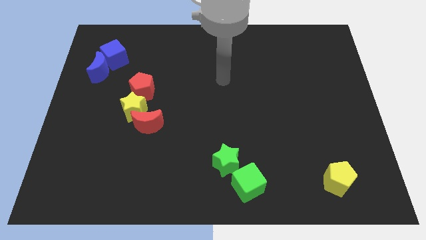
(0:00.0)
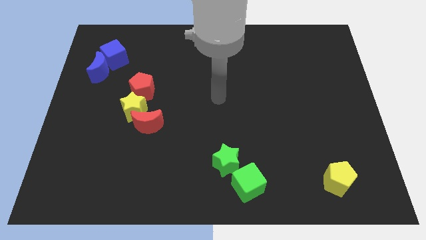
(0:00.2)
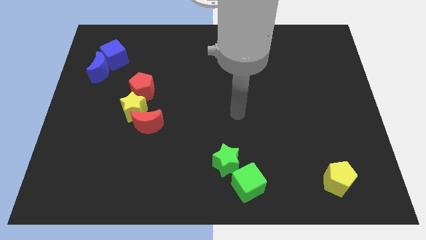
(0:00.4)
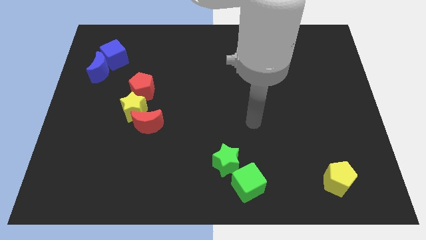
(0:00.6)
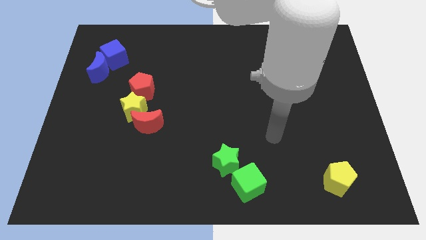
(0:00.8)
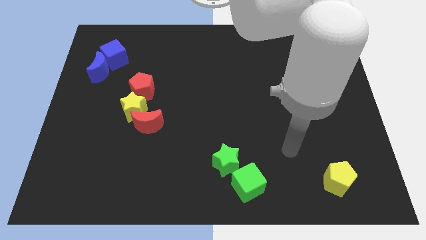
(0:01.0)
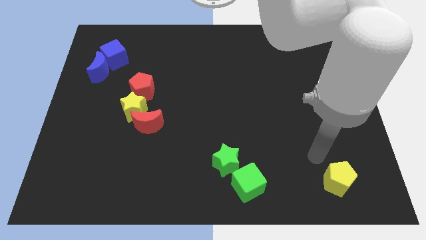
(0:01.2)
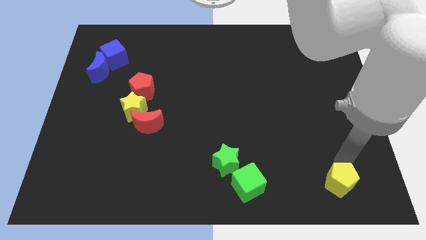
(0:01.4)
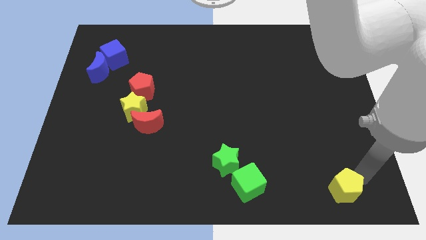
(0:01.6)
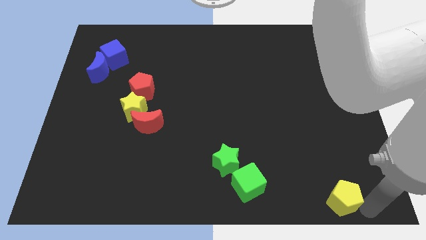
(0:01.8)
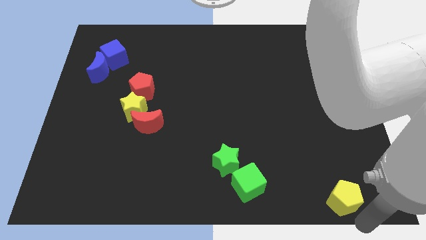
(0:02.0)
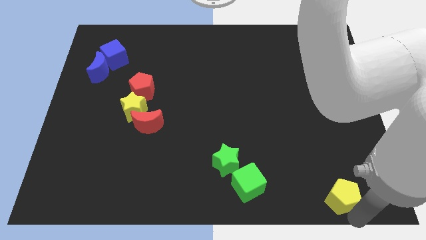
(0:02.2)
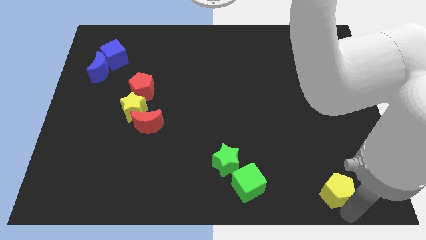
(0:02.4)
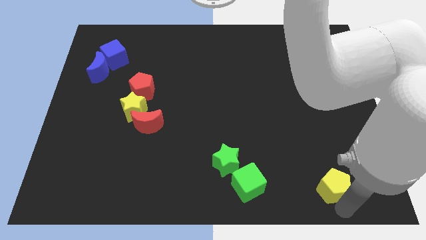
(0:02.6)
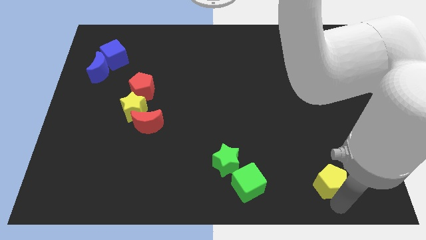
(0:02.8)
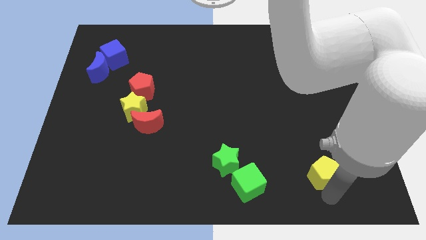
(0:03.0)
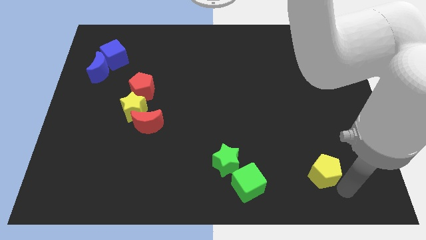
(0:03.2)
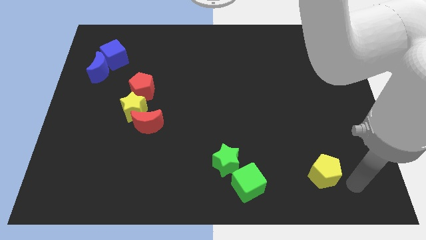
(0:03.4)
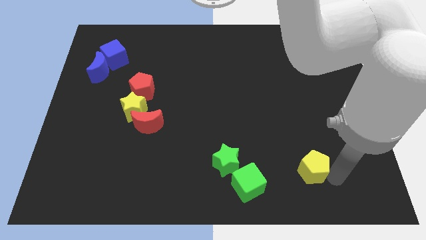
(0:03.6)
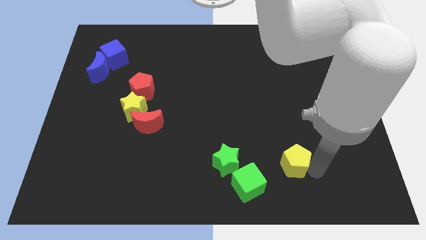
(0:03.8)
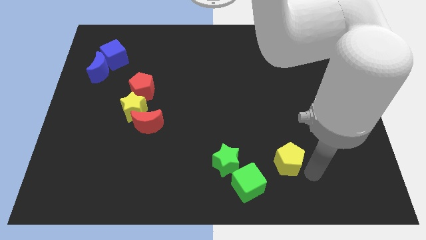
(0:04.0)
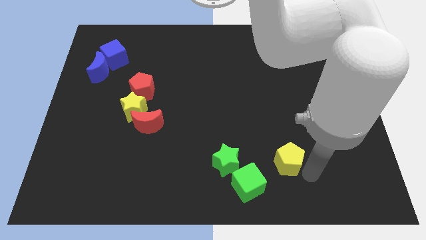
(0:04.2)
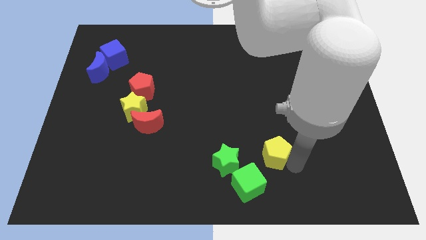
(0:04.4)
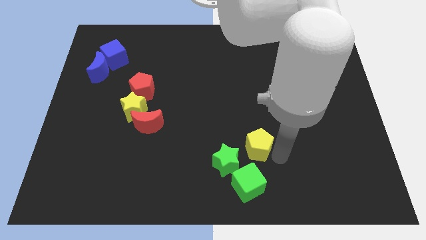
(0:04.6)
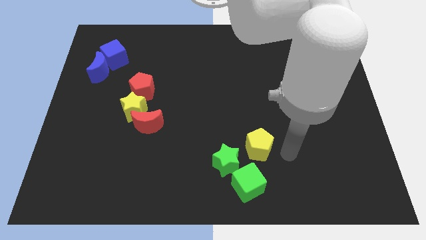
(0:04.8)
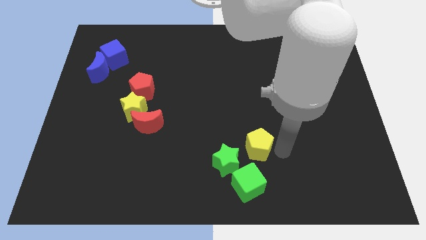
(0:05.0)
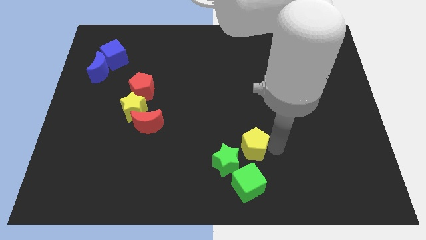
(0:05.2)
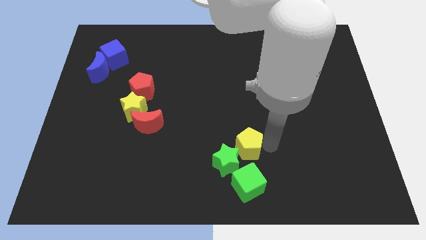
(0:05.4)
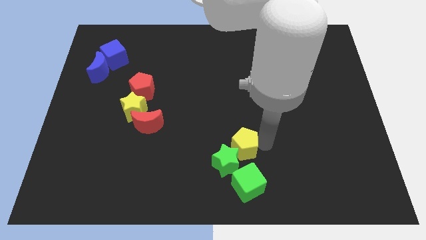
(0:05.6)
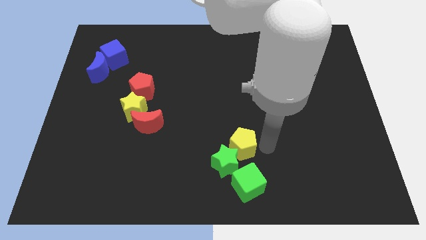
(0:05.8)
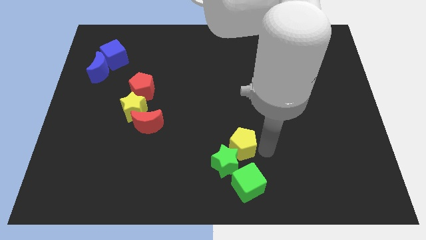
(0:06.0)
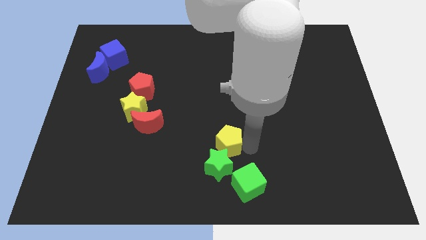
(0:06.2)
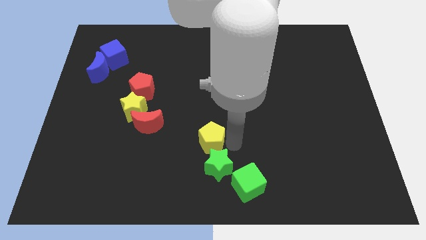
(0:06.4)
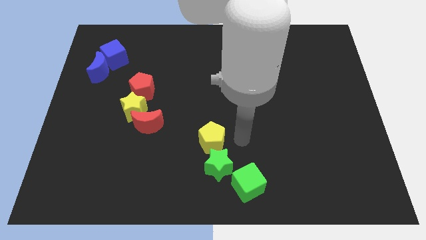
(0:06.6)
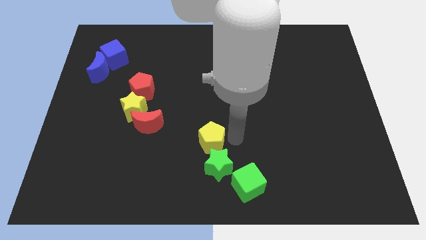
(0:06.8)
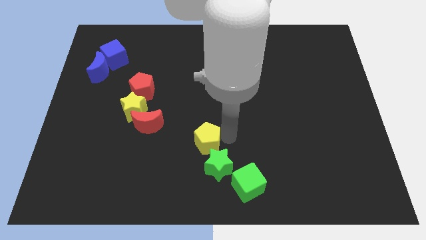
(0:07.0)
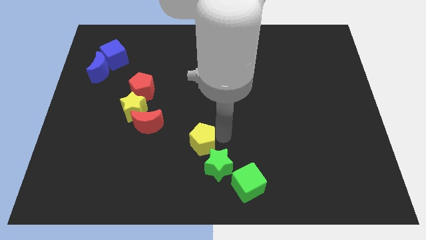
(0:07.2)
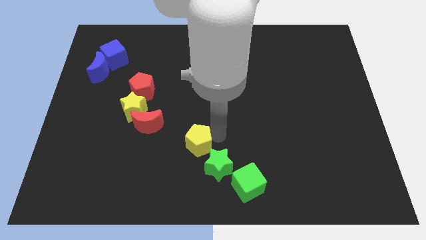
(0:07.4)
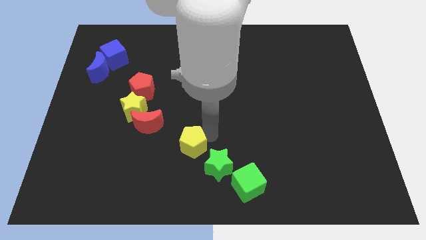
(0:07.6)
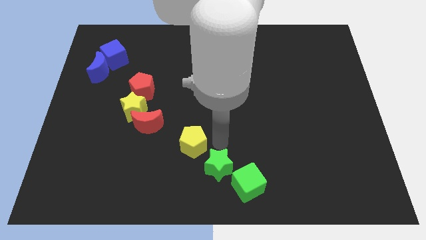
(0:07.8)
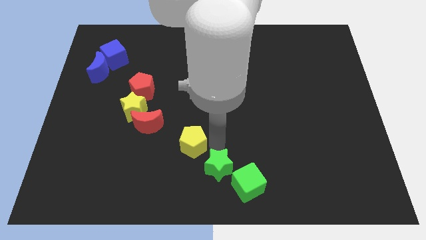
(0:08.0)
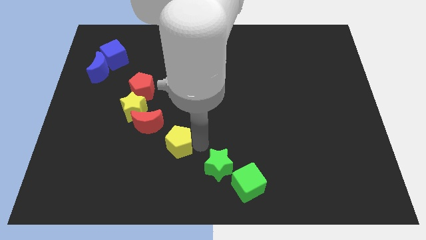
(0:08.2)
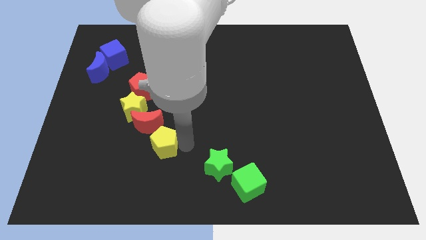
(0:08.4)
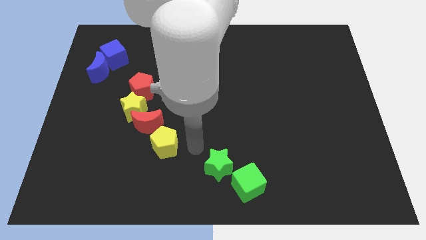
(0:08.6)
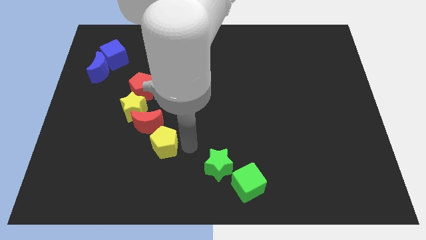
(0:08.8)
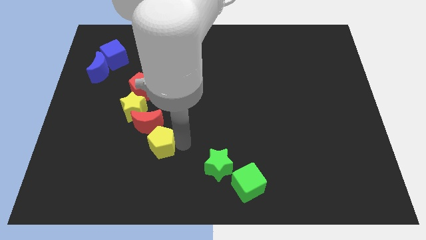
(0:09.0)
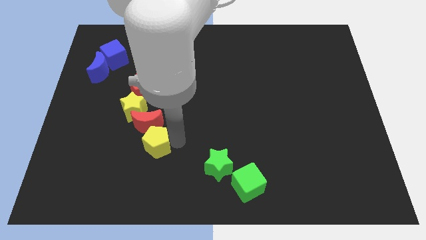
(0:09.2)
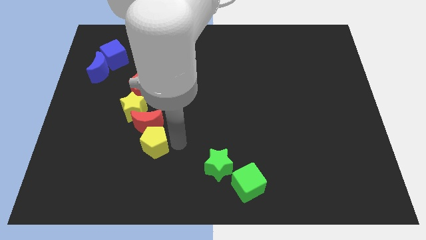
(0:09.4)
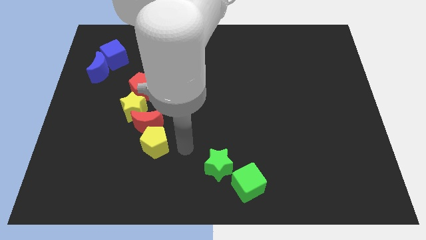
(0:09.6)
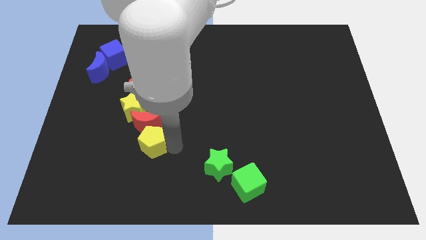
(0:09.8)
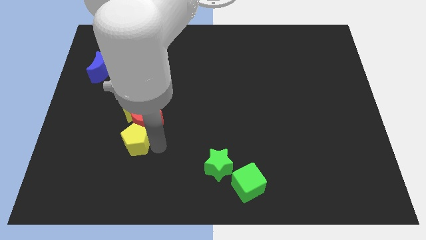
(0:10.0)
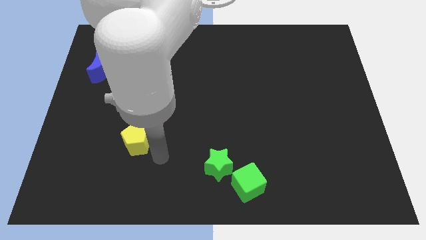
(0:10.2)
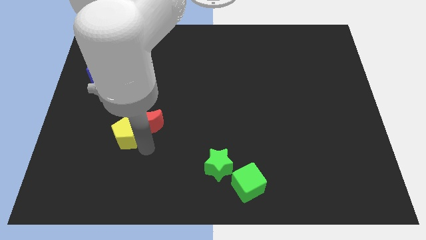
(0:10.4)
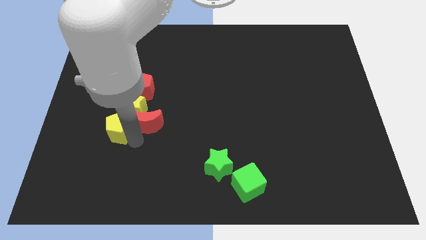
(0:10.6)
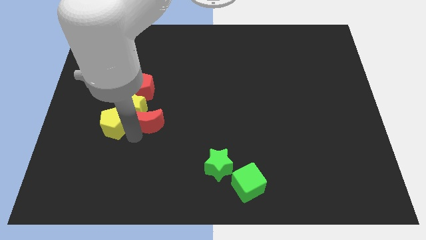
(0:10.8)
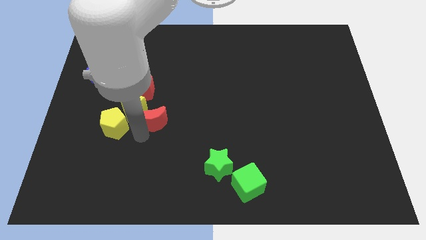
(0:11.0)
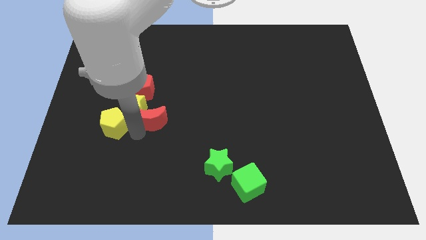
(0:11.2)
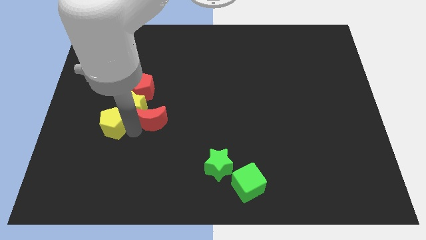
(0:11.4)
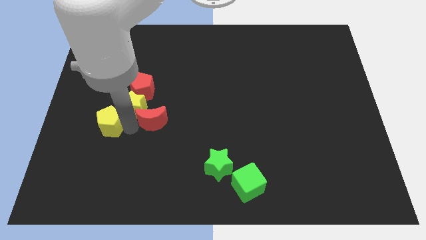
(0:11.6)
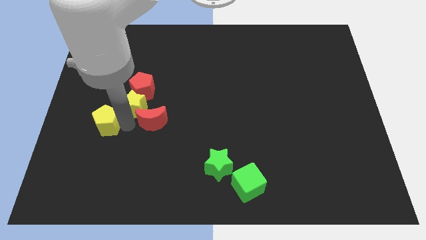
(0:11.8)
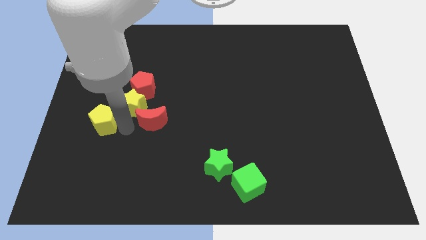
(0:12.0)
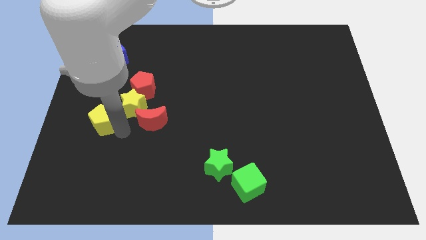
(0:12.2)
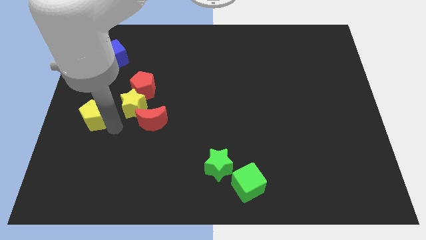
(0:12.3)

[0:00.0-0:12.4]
push the yellow pentagon to the left side

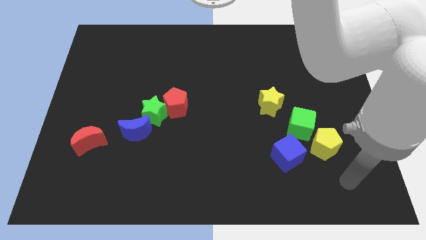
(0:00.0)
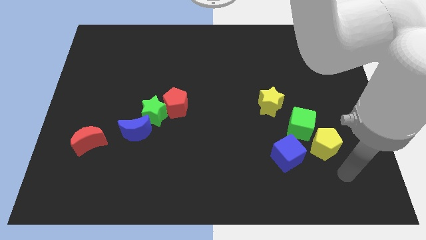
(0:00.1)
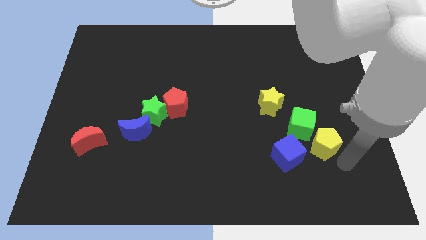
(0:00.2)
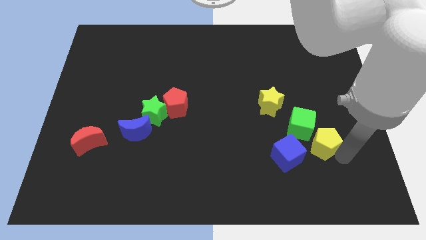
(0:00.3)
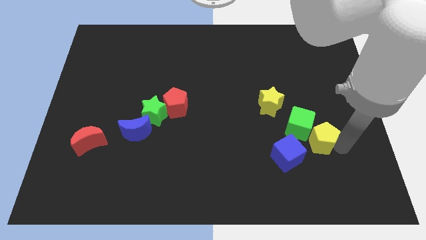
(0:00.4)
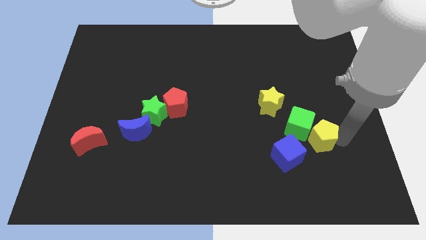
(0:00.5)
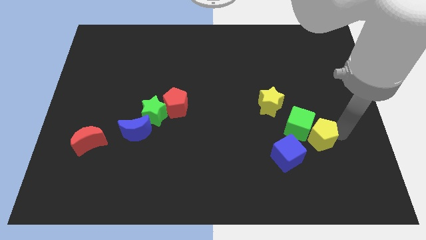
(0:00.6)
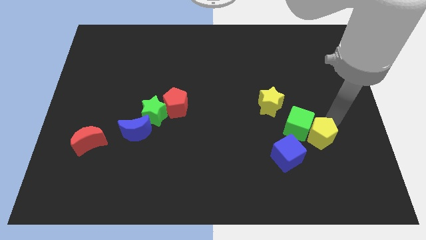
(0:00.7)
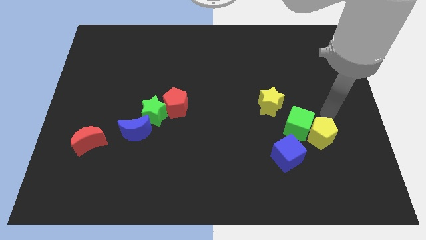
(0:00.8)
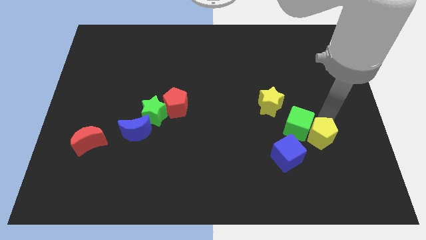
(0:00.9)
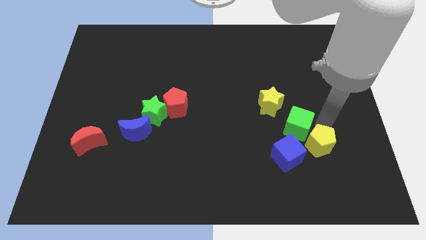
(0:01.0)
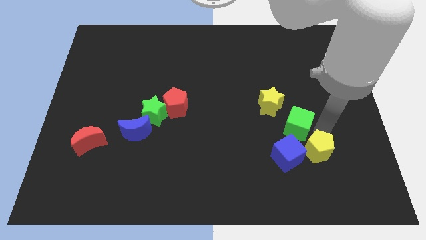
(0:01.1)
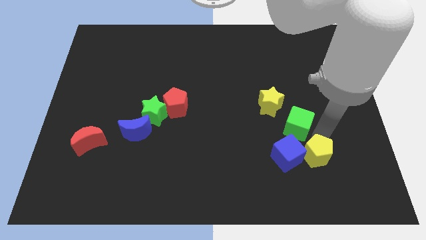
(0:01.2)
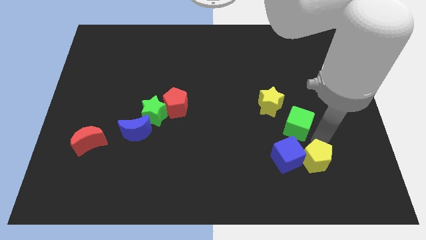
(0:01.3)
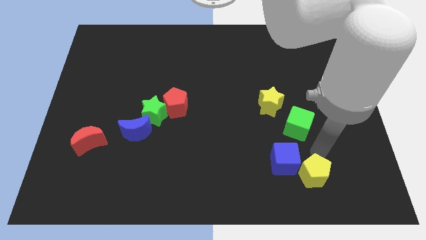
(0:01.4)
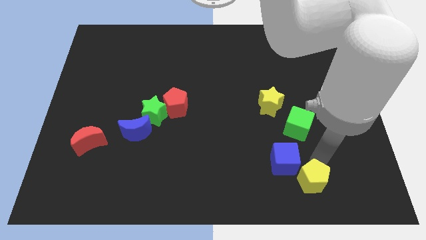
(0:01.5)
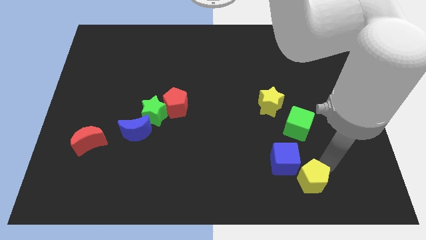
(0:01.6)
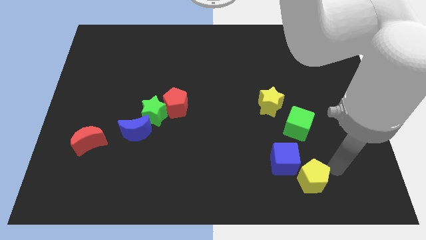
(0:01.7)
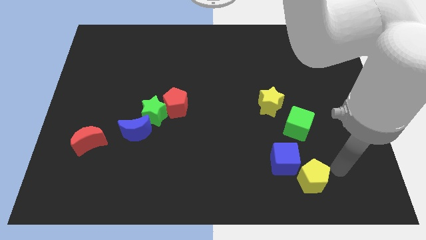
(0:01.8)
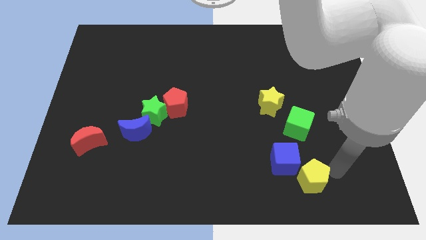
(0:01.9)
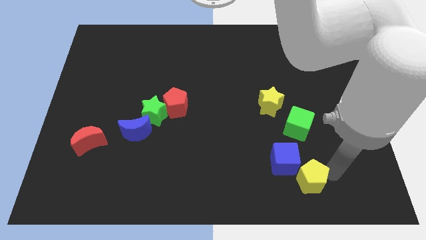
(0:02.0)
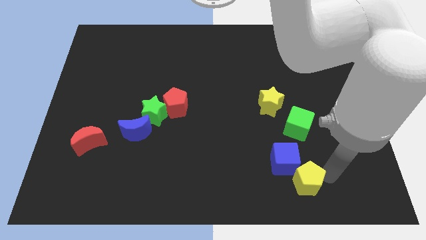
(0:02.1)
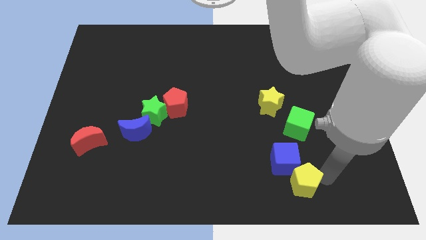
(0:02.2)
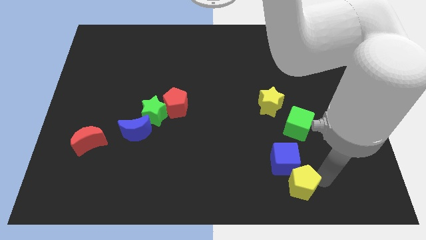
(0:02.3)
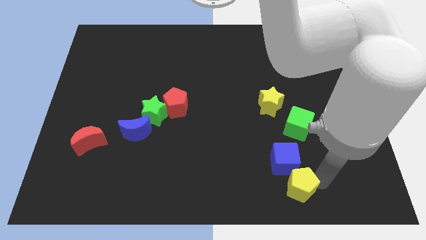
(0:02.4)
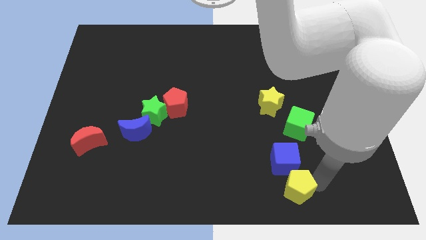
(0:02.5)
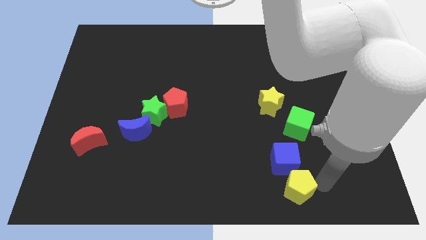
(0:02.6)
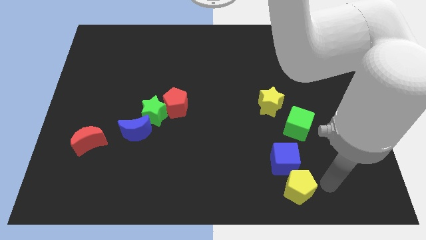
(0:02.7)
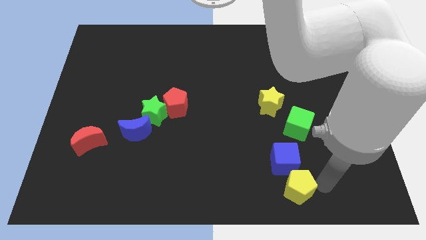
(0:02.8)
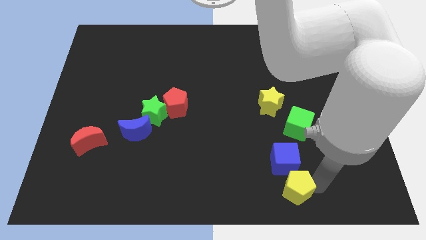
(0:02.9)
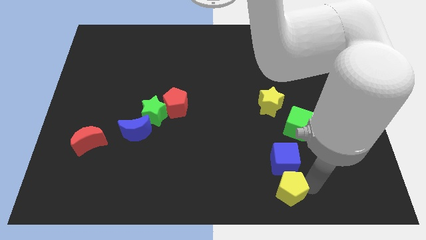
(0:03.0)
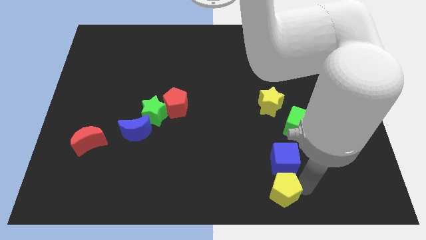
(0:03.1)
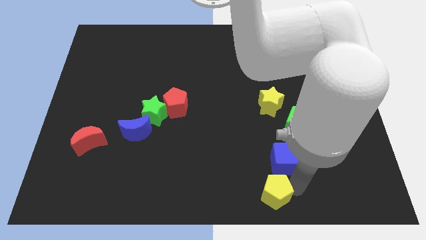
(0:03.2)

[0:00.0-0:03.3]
move the yellow pentagon to the bottom side
